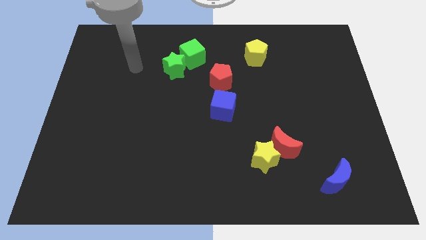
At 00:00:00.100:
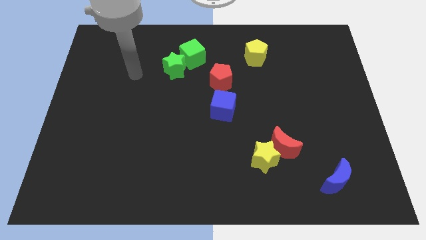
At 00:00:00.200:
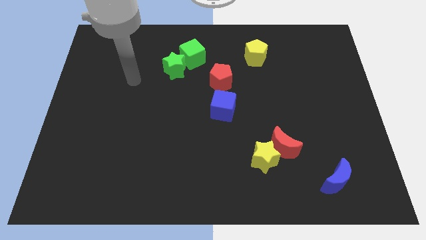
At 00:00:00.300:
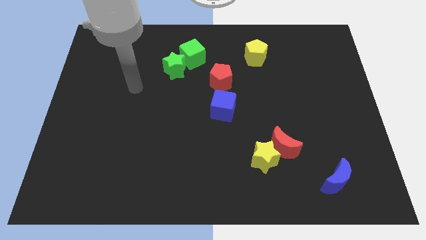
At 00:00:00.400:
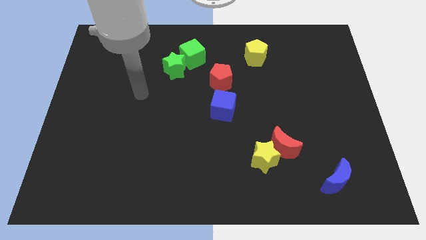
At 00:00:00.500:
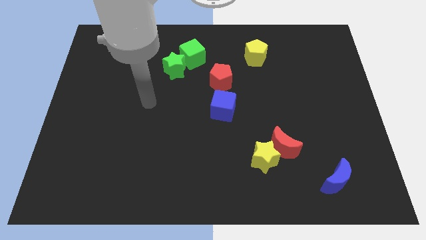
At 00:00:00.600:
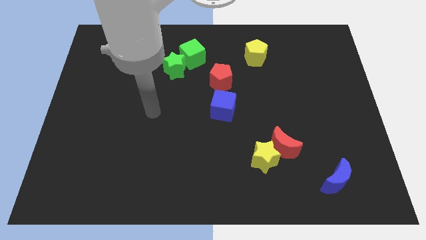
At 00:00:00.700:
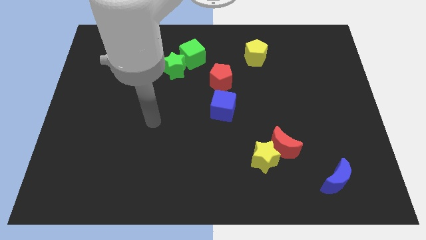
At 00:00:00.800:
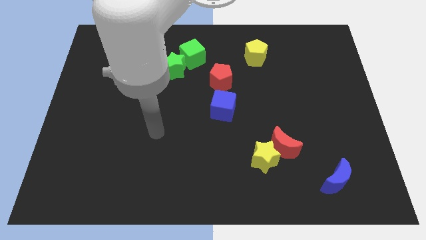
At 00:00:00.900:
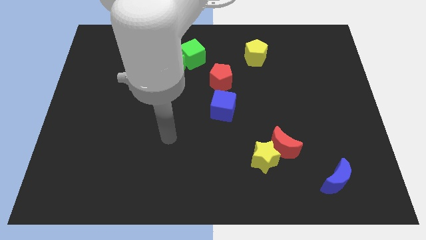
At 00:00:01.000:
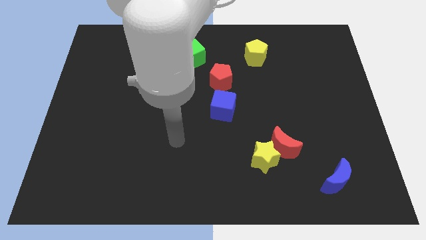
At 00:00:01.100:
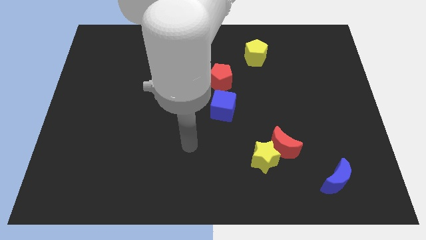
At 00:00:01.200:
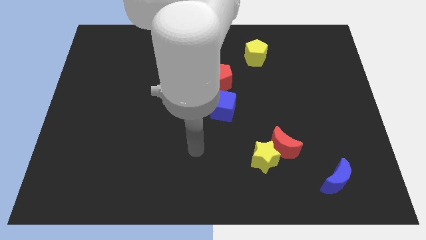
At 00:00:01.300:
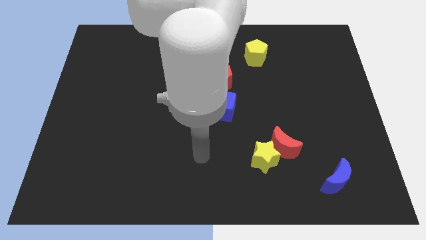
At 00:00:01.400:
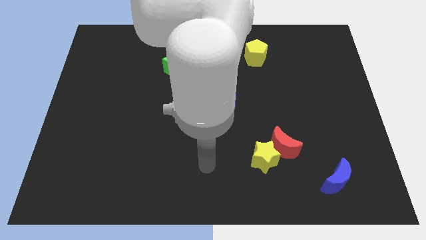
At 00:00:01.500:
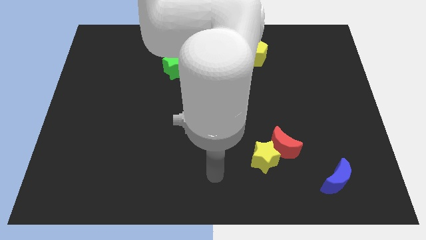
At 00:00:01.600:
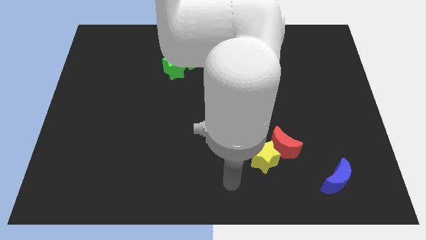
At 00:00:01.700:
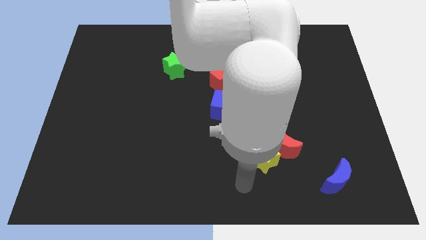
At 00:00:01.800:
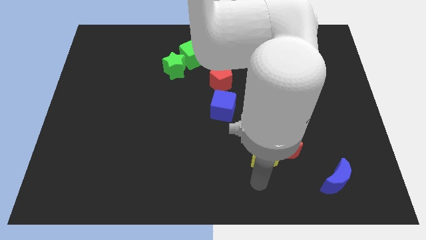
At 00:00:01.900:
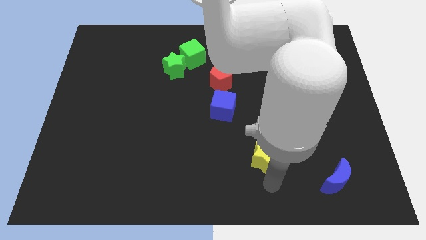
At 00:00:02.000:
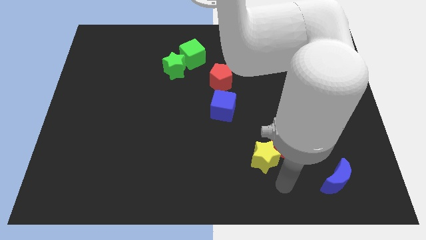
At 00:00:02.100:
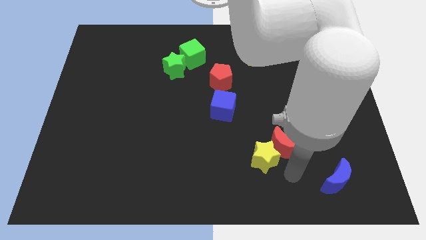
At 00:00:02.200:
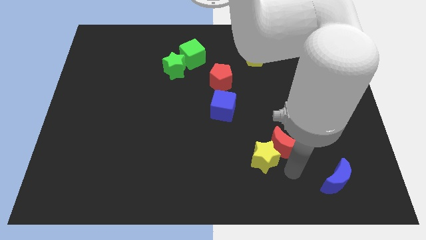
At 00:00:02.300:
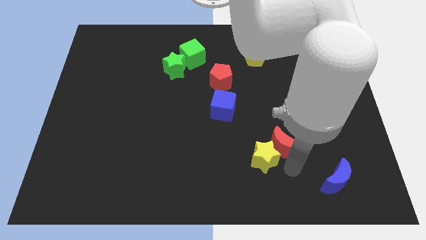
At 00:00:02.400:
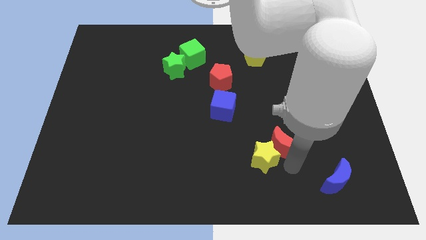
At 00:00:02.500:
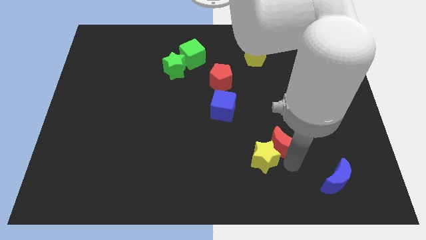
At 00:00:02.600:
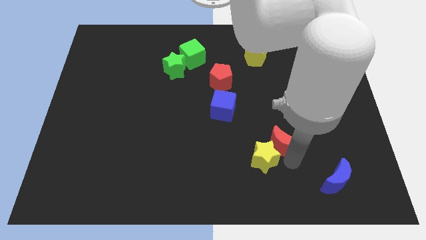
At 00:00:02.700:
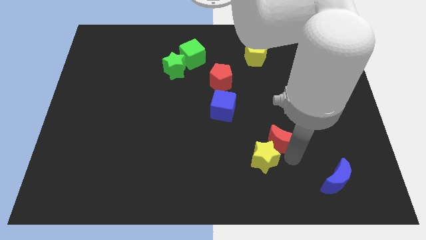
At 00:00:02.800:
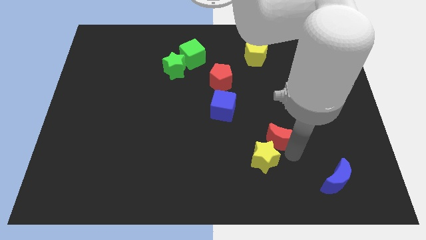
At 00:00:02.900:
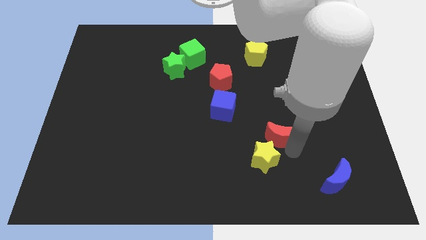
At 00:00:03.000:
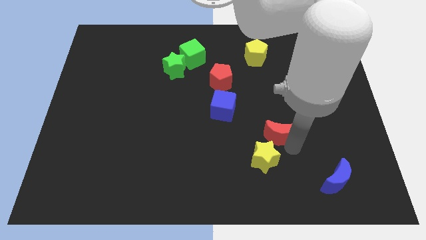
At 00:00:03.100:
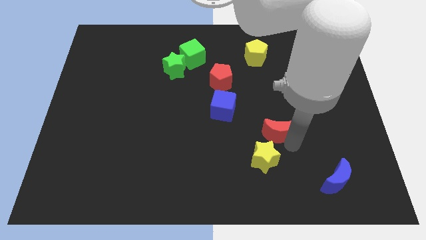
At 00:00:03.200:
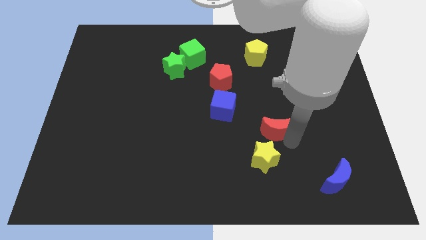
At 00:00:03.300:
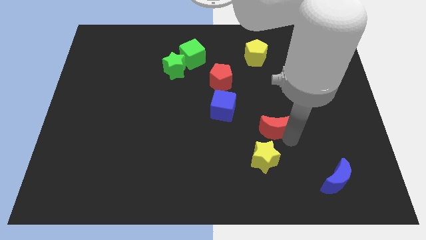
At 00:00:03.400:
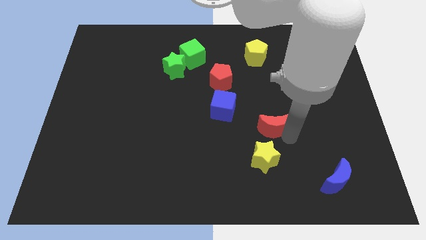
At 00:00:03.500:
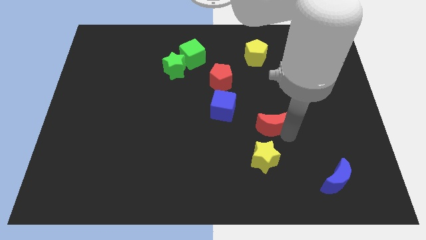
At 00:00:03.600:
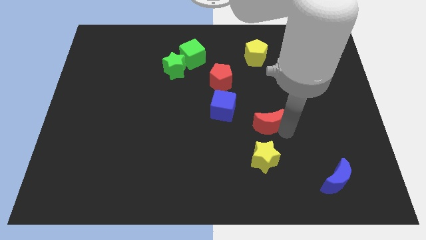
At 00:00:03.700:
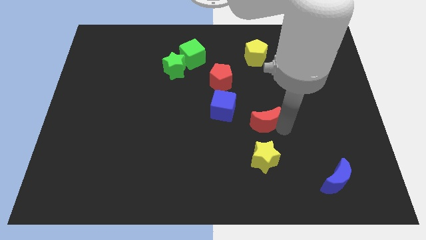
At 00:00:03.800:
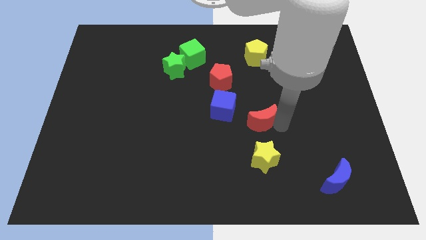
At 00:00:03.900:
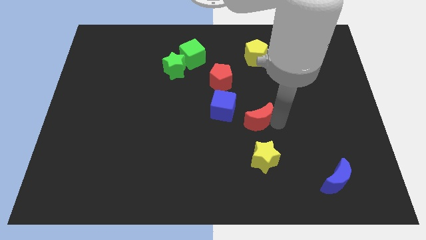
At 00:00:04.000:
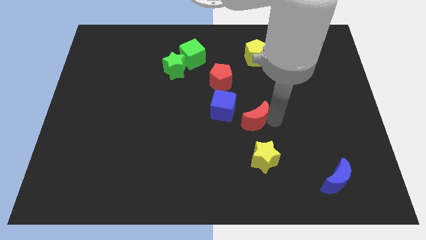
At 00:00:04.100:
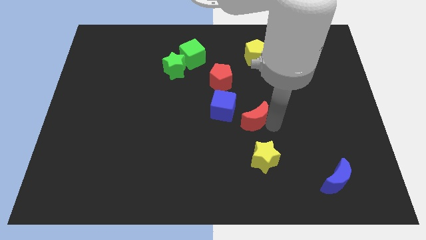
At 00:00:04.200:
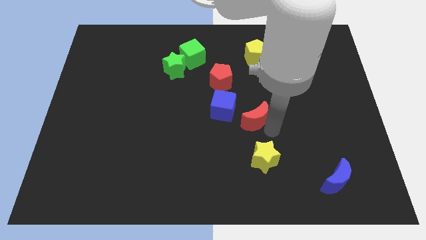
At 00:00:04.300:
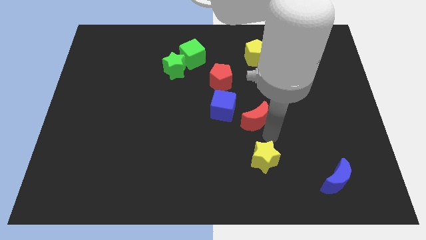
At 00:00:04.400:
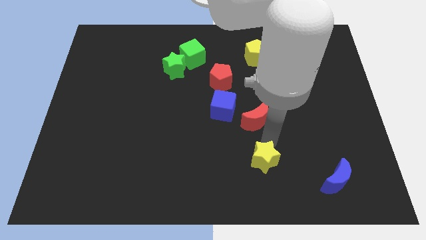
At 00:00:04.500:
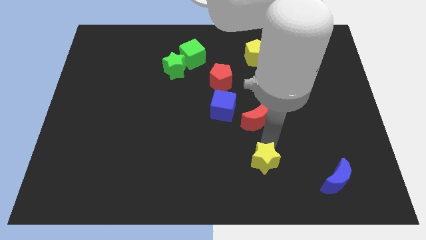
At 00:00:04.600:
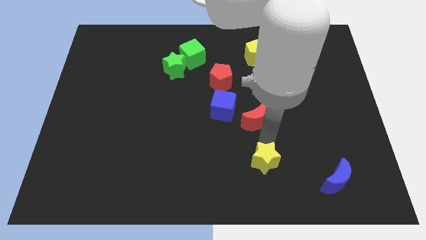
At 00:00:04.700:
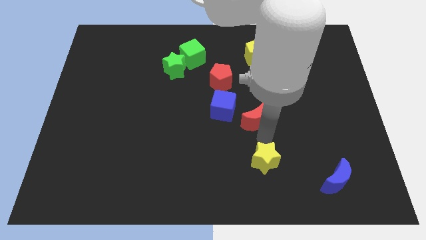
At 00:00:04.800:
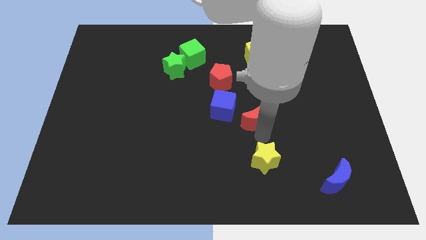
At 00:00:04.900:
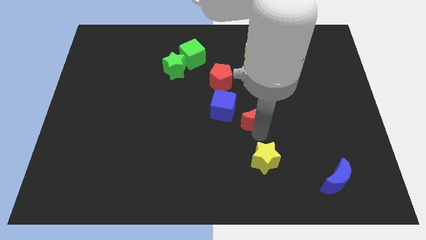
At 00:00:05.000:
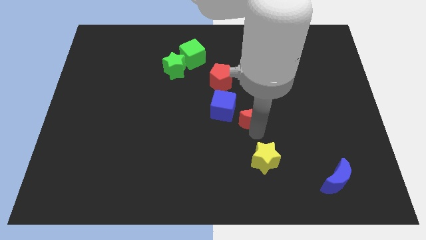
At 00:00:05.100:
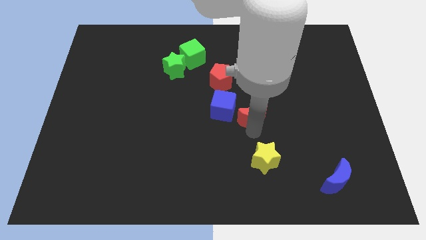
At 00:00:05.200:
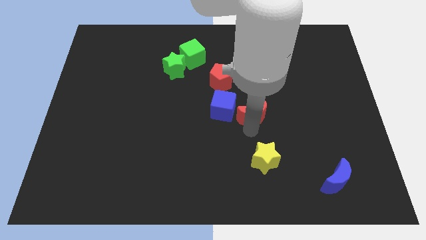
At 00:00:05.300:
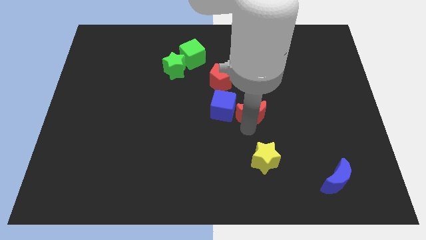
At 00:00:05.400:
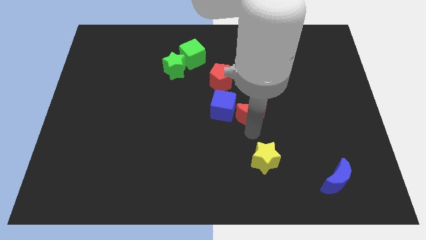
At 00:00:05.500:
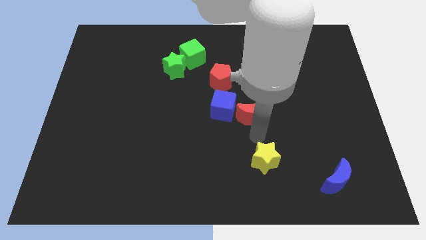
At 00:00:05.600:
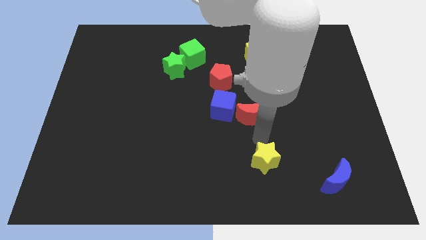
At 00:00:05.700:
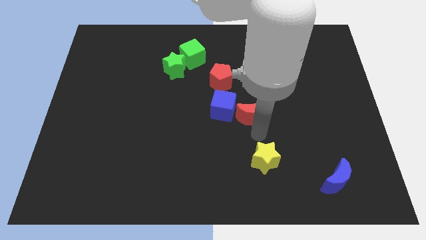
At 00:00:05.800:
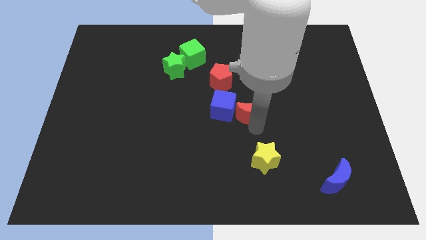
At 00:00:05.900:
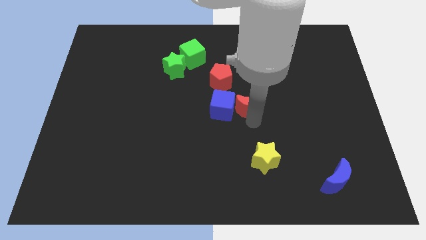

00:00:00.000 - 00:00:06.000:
move the red moon to the bottom right side of the red pentagon

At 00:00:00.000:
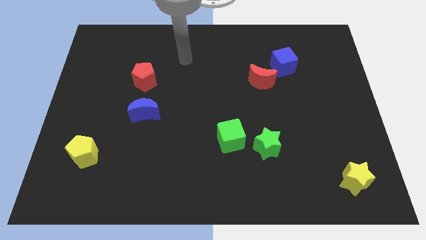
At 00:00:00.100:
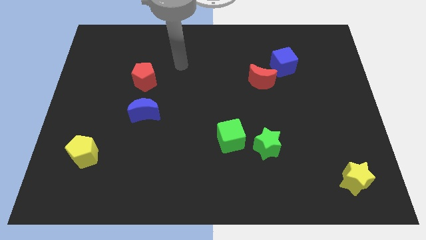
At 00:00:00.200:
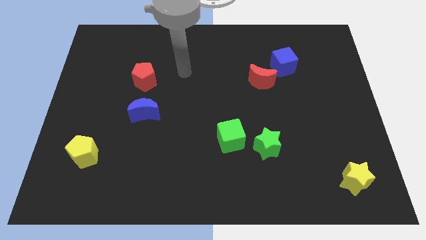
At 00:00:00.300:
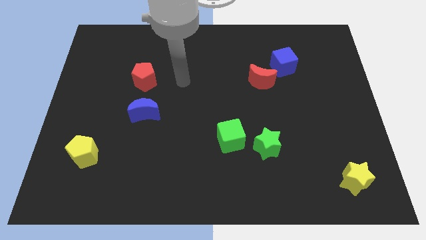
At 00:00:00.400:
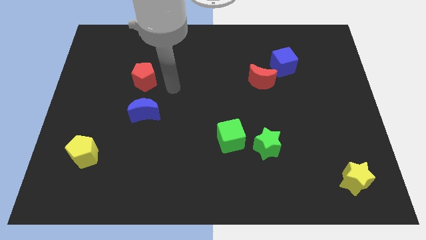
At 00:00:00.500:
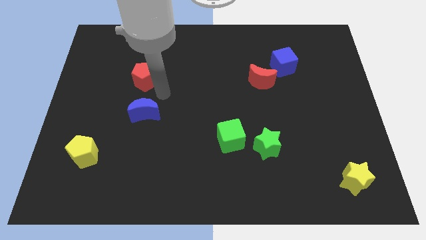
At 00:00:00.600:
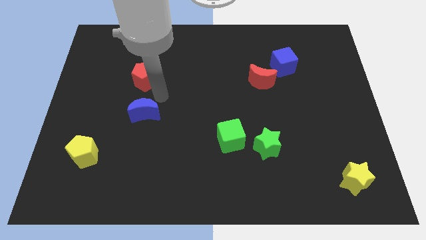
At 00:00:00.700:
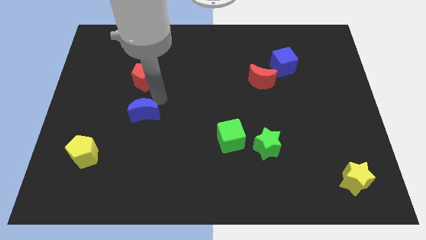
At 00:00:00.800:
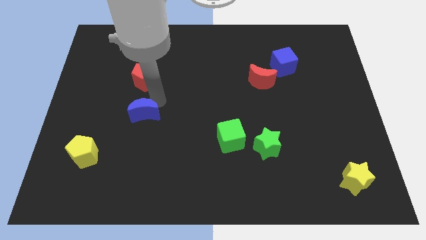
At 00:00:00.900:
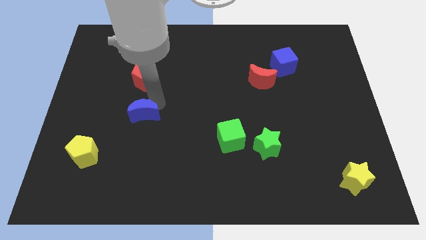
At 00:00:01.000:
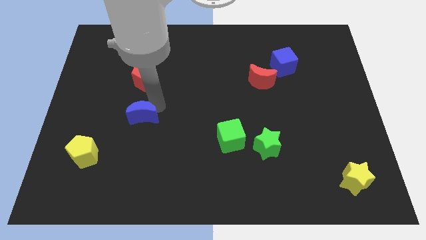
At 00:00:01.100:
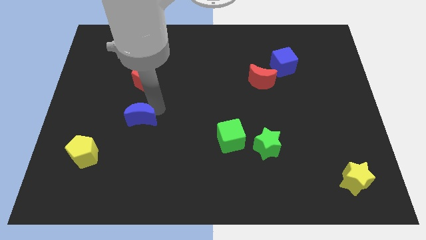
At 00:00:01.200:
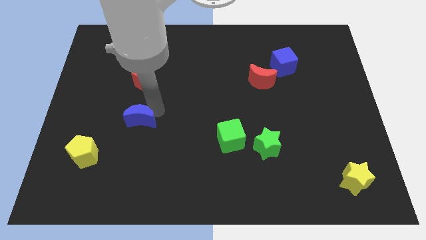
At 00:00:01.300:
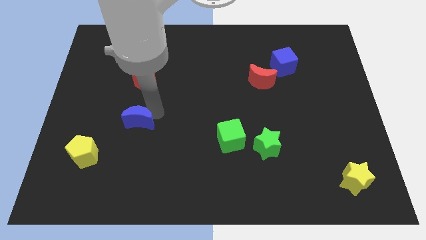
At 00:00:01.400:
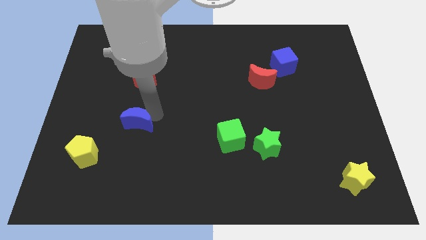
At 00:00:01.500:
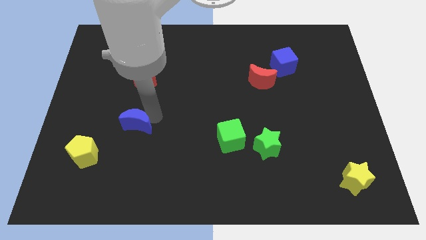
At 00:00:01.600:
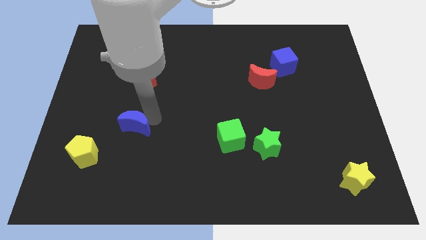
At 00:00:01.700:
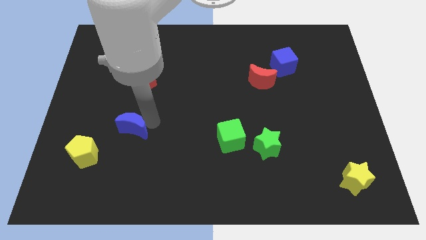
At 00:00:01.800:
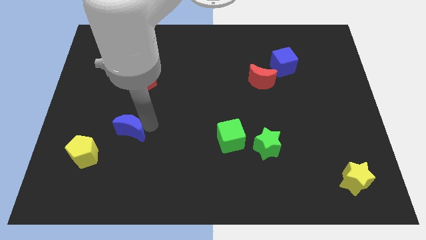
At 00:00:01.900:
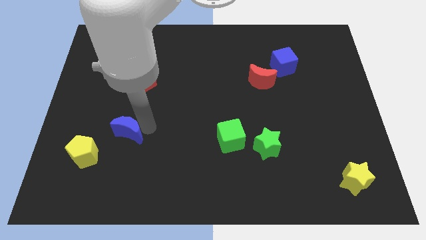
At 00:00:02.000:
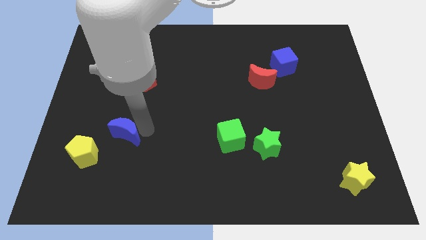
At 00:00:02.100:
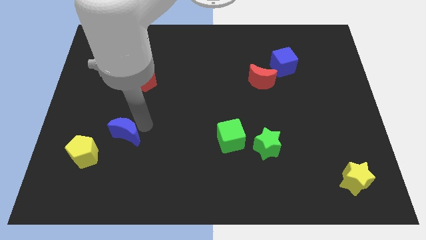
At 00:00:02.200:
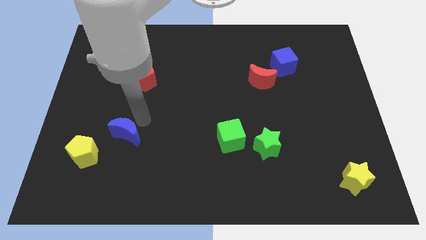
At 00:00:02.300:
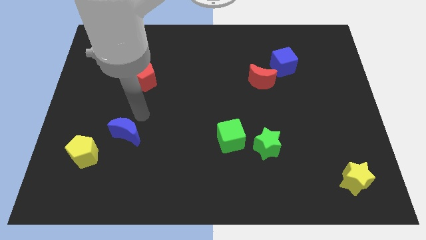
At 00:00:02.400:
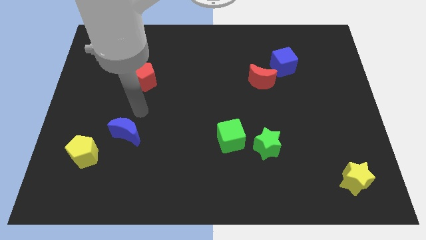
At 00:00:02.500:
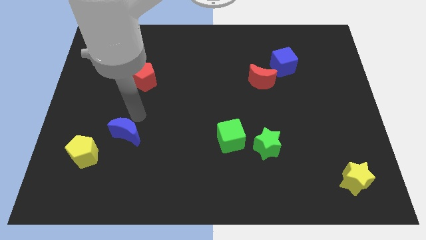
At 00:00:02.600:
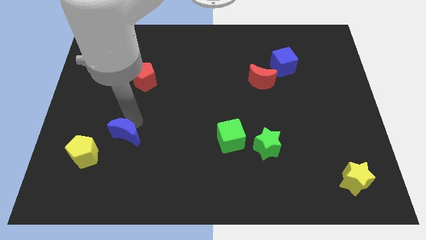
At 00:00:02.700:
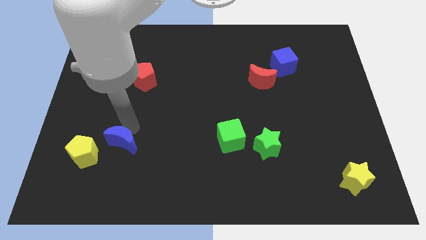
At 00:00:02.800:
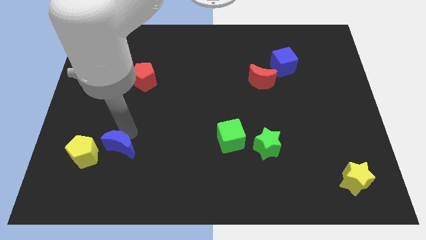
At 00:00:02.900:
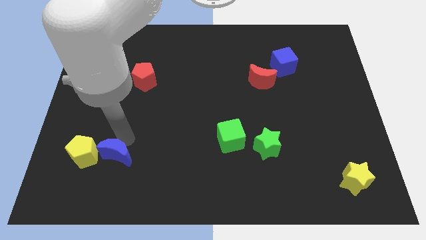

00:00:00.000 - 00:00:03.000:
slide the blue moon diagonally down and to the right of the yellow pentagon
